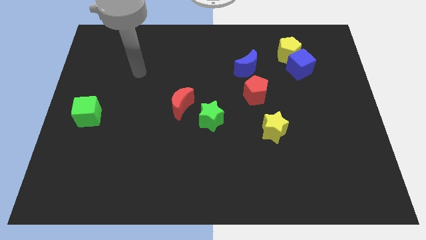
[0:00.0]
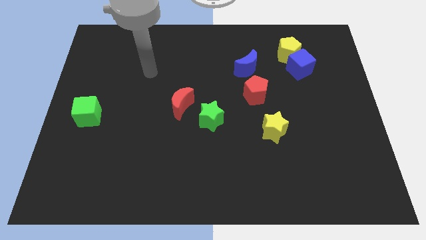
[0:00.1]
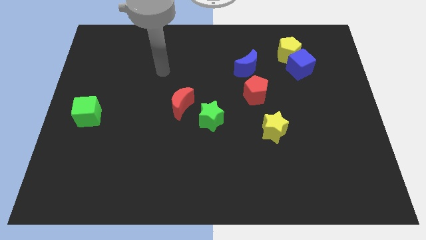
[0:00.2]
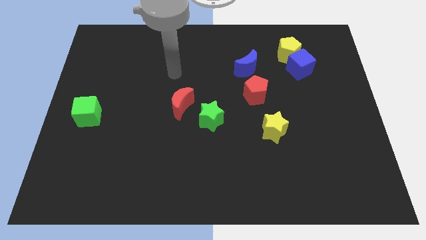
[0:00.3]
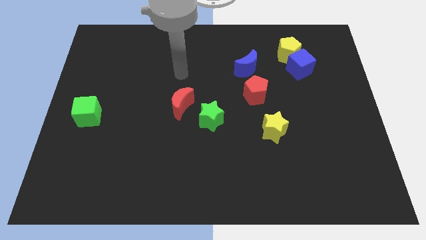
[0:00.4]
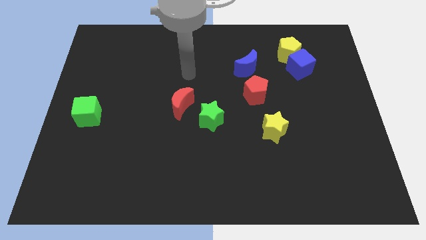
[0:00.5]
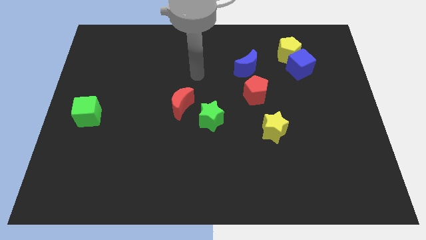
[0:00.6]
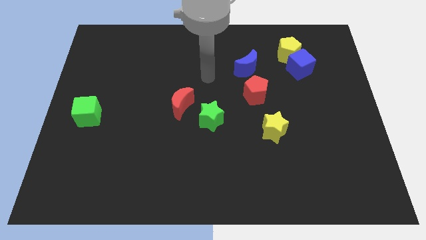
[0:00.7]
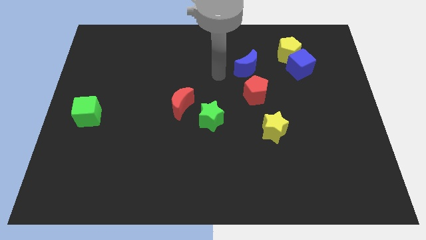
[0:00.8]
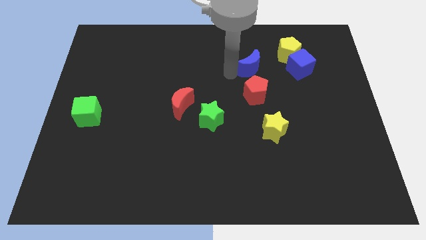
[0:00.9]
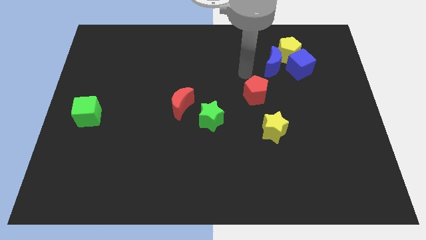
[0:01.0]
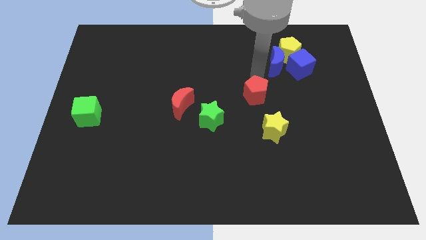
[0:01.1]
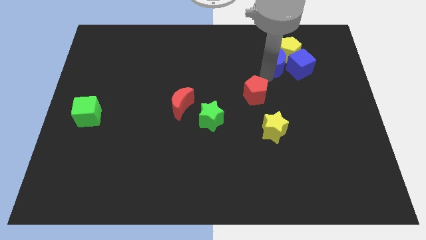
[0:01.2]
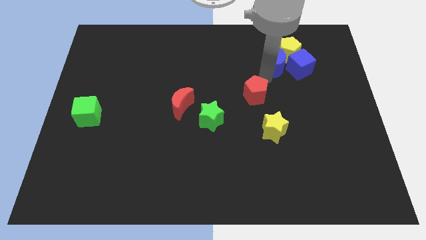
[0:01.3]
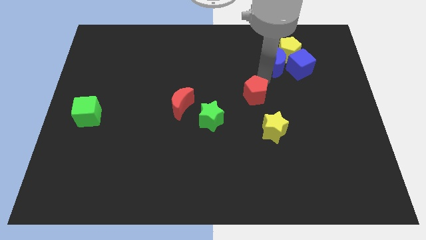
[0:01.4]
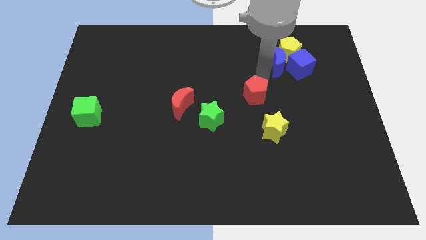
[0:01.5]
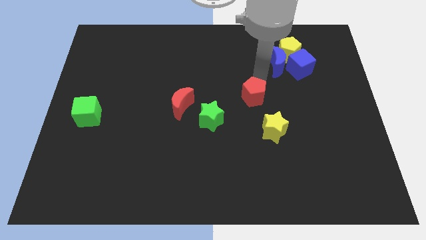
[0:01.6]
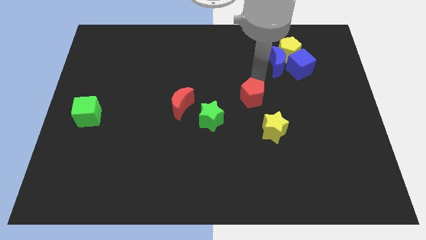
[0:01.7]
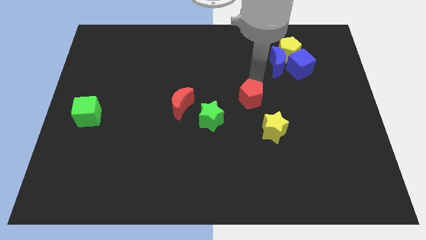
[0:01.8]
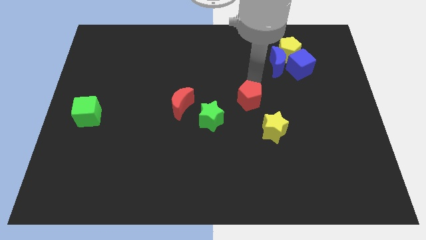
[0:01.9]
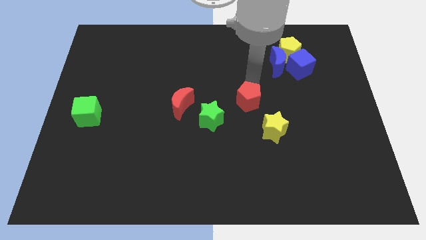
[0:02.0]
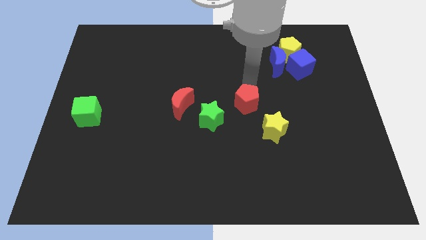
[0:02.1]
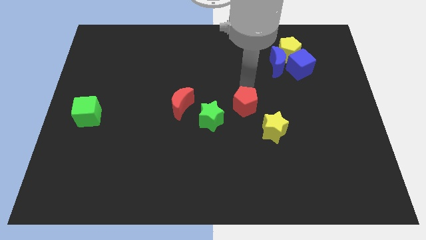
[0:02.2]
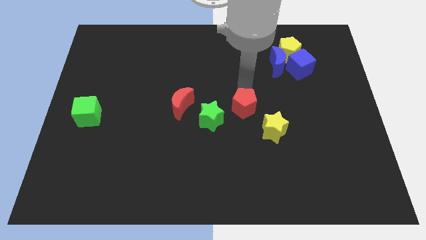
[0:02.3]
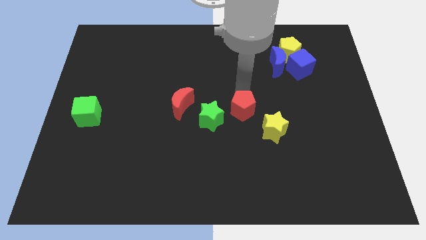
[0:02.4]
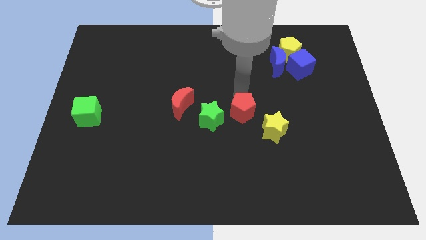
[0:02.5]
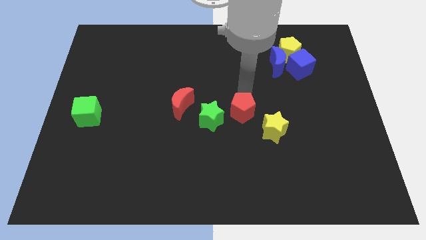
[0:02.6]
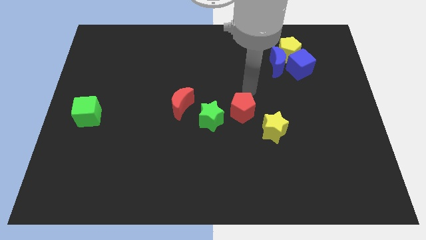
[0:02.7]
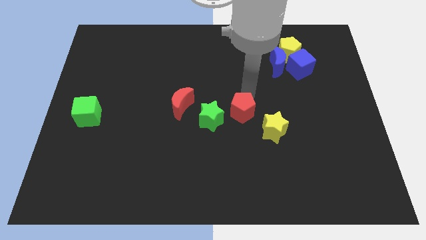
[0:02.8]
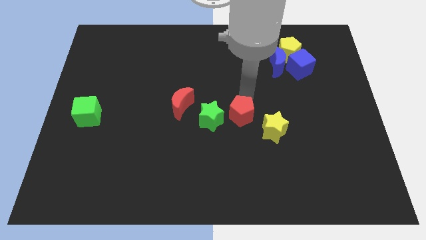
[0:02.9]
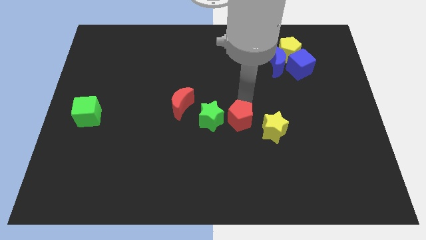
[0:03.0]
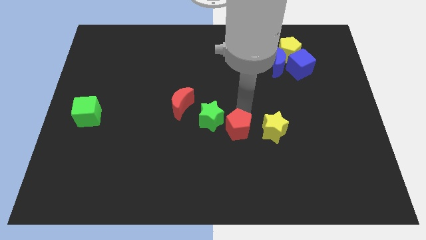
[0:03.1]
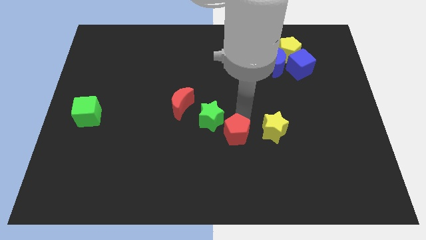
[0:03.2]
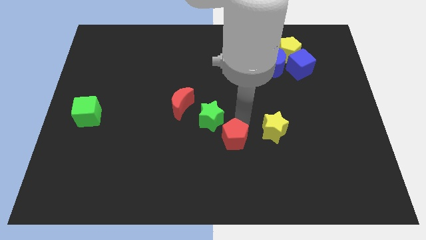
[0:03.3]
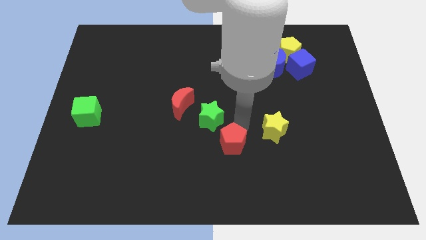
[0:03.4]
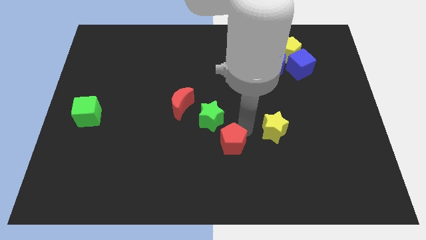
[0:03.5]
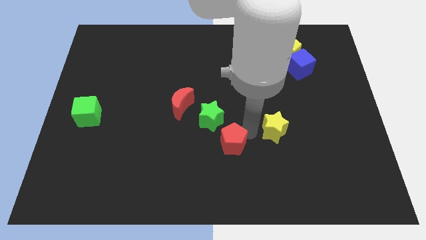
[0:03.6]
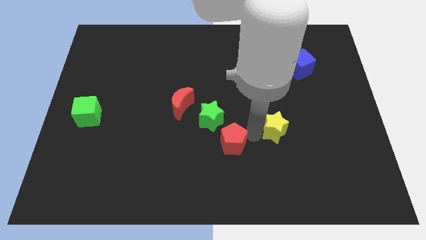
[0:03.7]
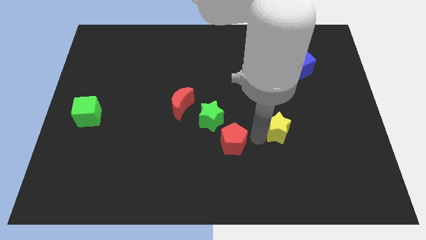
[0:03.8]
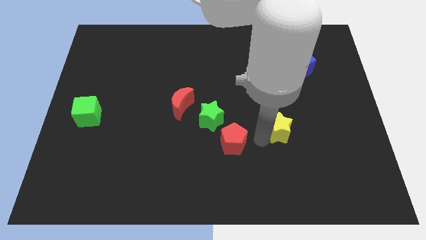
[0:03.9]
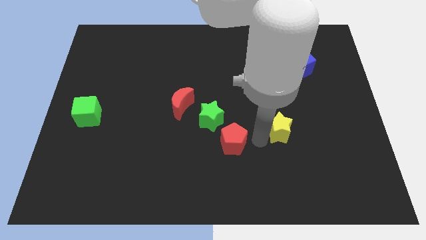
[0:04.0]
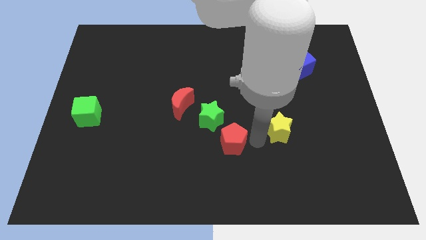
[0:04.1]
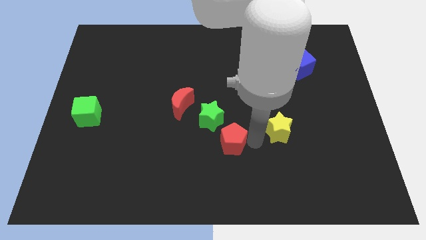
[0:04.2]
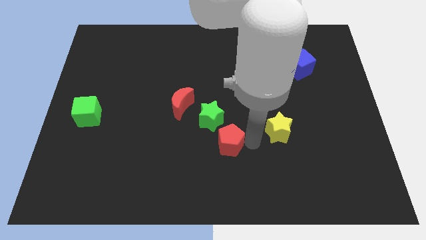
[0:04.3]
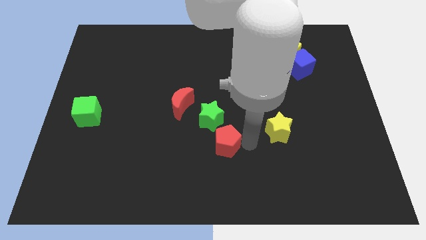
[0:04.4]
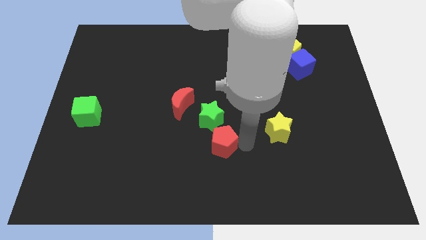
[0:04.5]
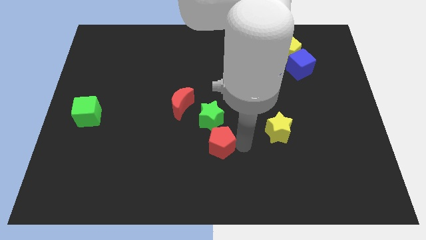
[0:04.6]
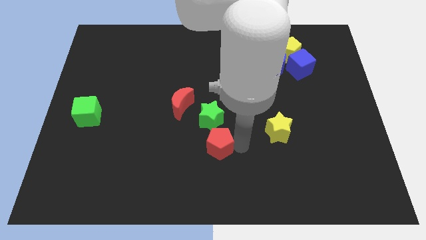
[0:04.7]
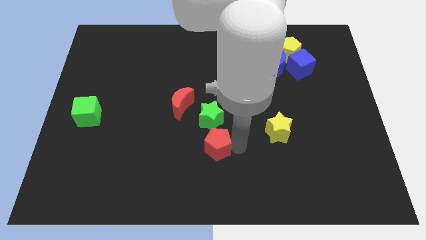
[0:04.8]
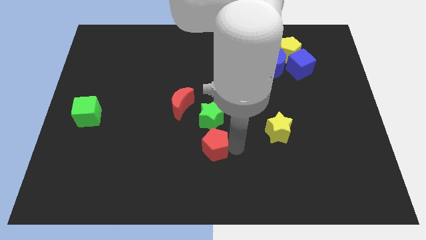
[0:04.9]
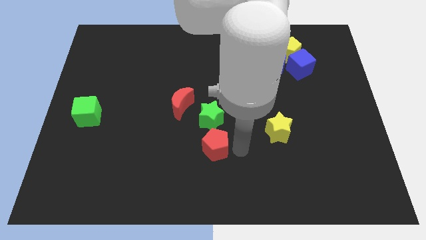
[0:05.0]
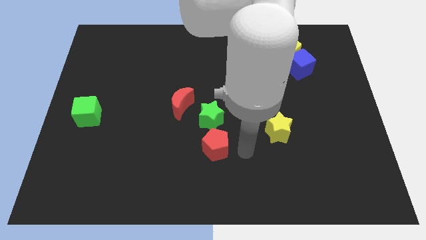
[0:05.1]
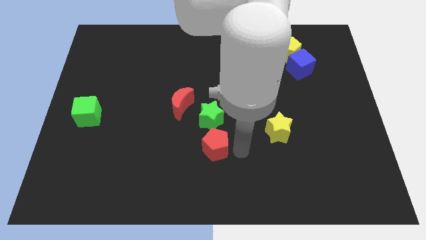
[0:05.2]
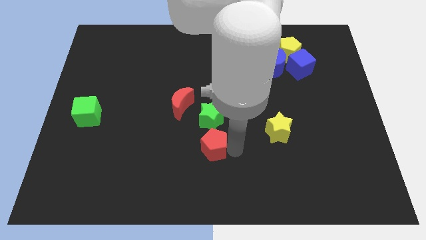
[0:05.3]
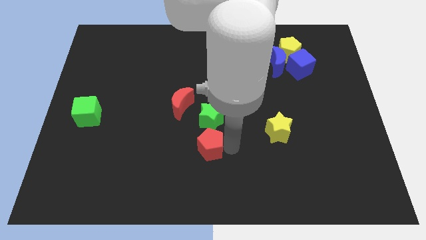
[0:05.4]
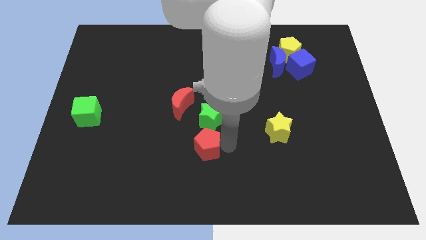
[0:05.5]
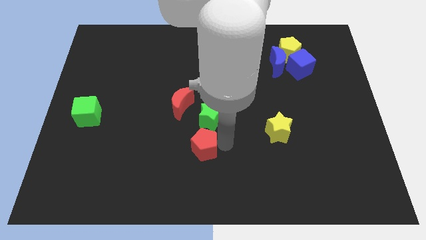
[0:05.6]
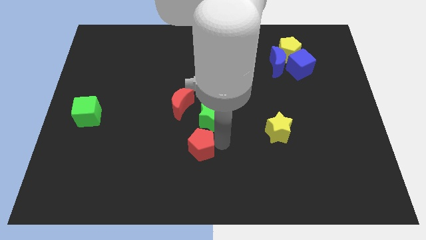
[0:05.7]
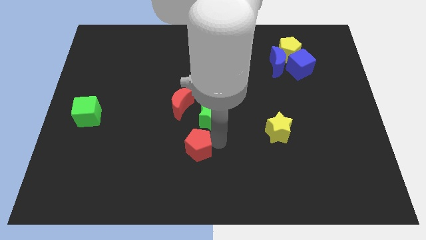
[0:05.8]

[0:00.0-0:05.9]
slide the red pentagon to the bottom side of the red moon

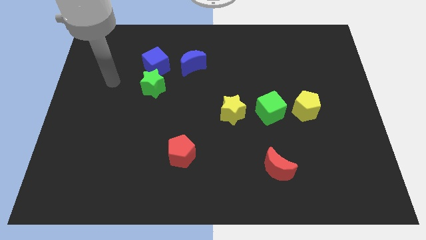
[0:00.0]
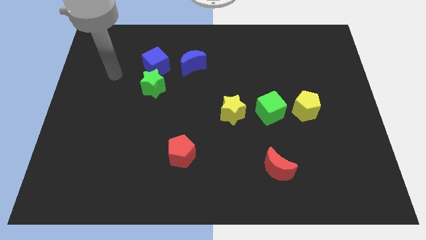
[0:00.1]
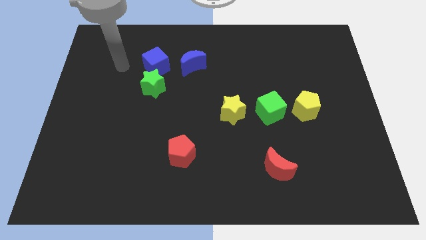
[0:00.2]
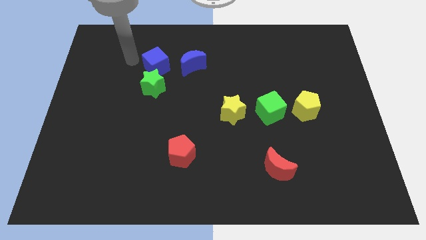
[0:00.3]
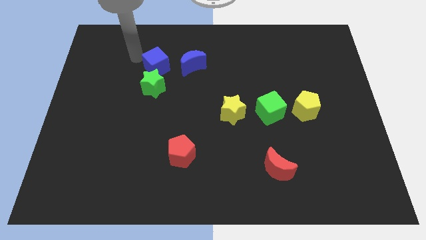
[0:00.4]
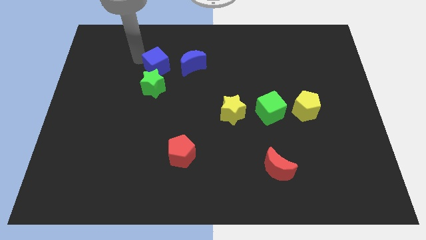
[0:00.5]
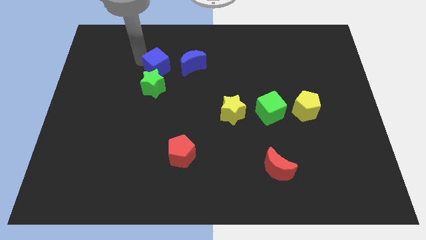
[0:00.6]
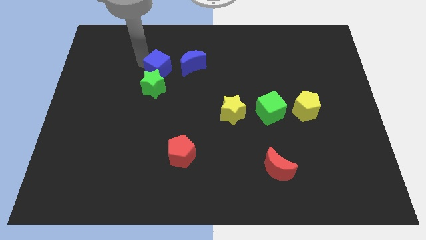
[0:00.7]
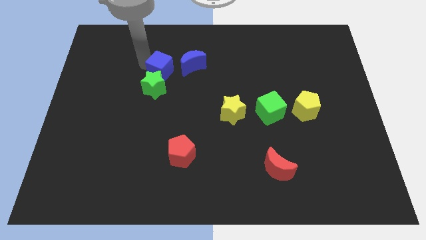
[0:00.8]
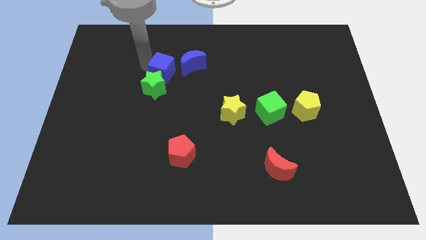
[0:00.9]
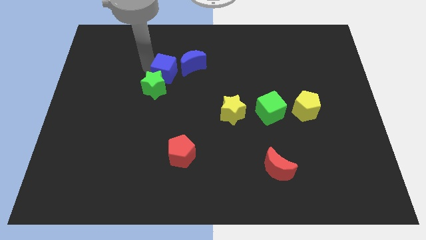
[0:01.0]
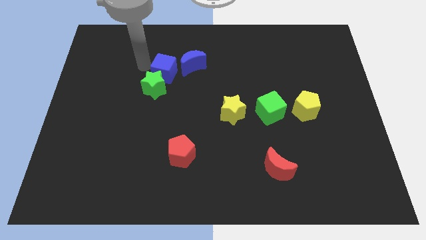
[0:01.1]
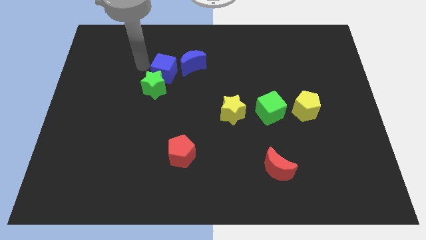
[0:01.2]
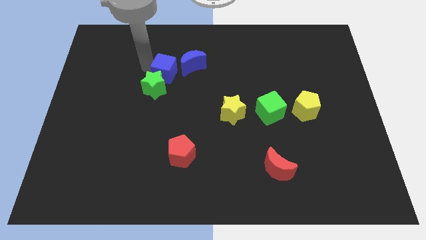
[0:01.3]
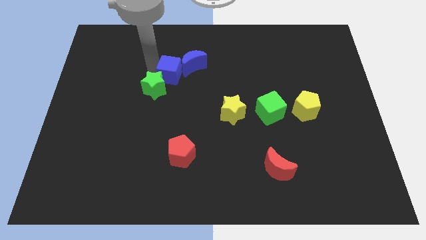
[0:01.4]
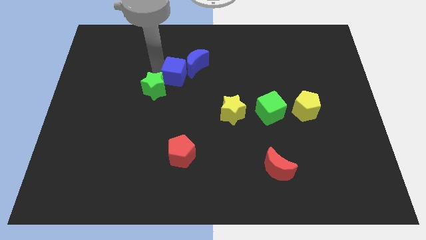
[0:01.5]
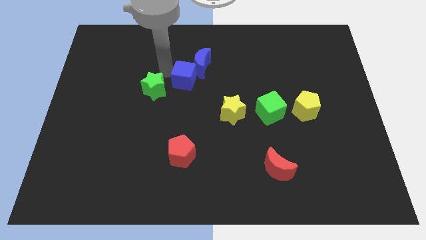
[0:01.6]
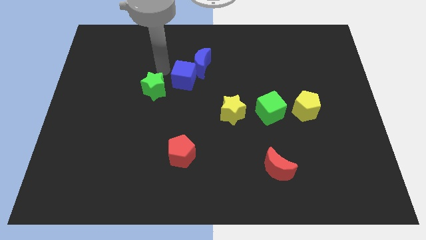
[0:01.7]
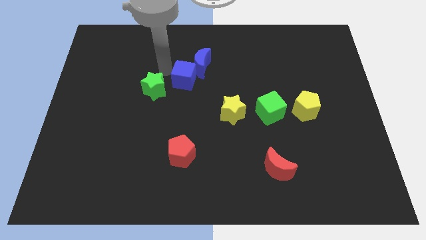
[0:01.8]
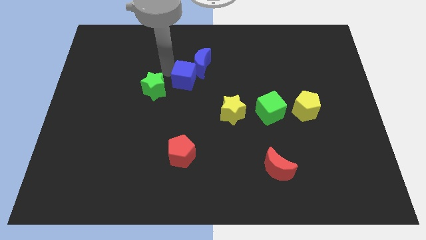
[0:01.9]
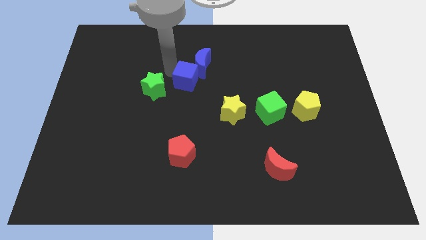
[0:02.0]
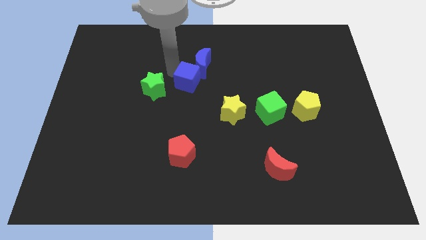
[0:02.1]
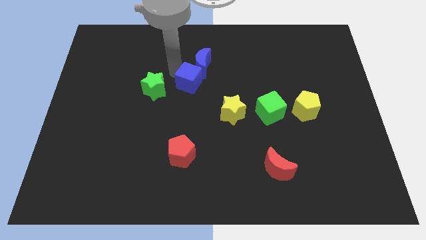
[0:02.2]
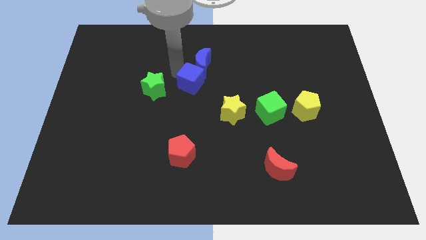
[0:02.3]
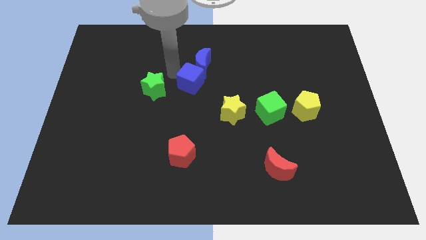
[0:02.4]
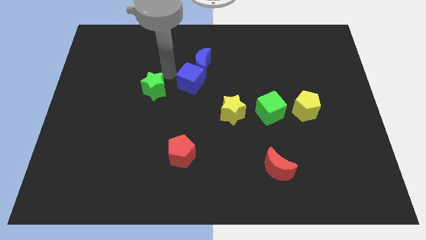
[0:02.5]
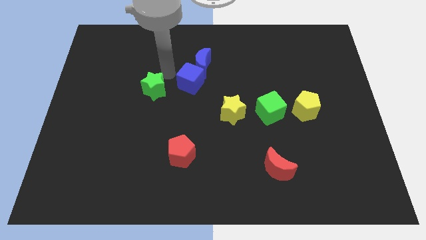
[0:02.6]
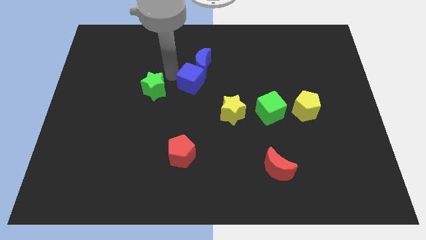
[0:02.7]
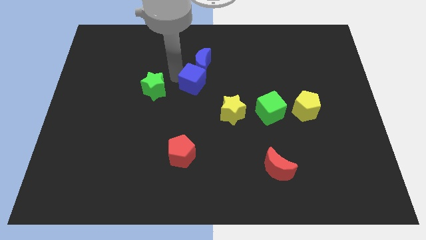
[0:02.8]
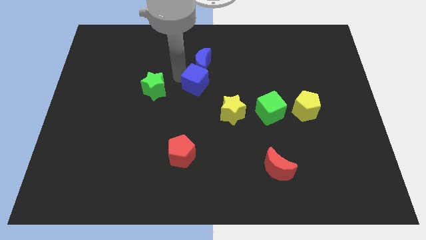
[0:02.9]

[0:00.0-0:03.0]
push the blue cube diagonally up and to the left of the yellow star
